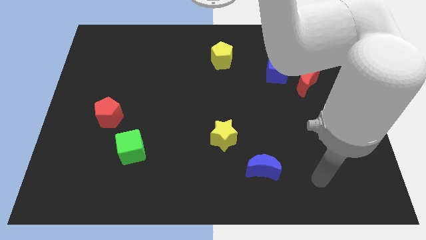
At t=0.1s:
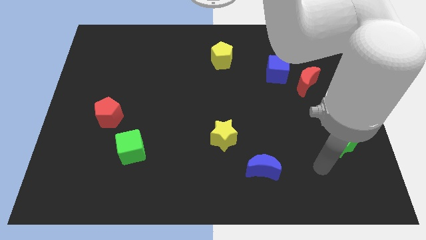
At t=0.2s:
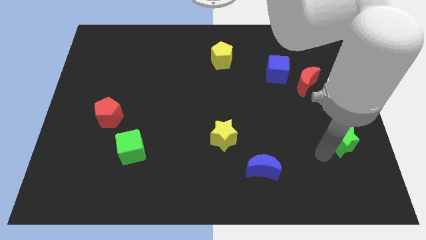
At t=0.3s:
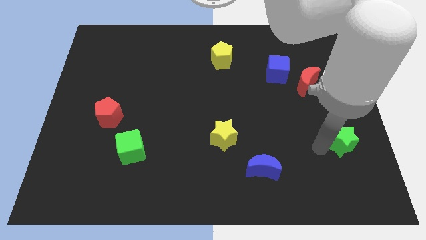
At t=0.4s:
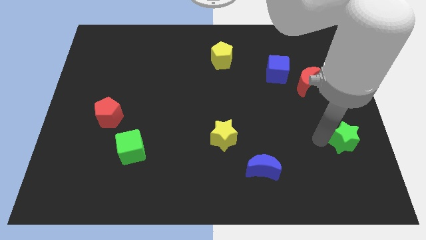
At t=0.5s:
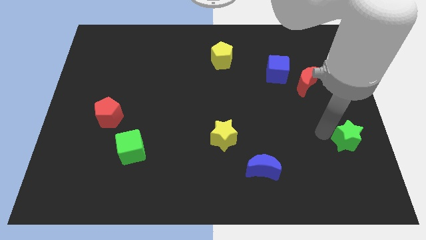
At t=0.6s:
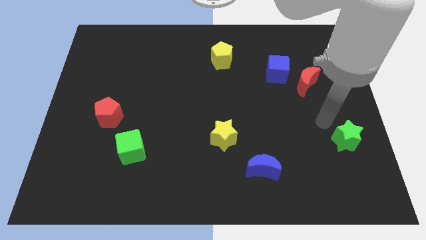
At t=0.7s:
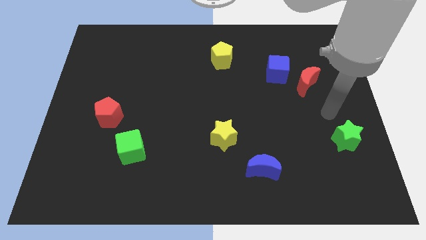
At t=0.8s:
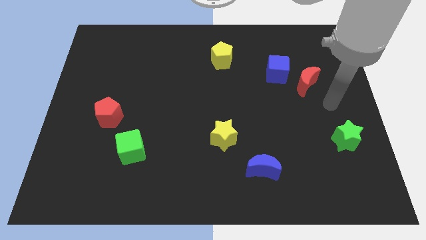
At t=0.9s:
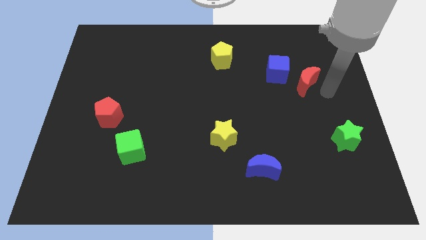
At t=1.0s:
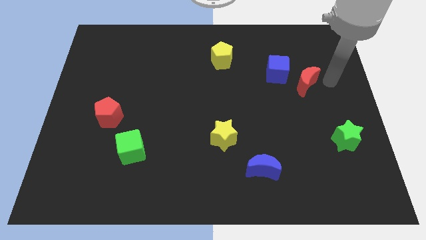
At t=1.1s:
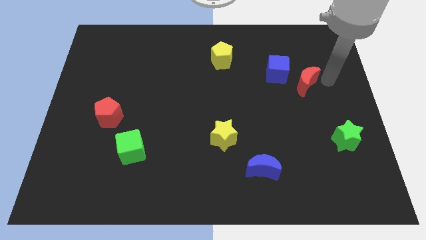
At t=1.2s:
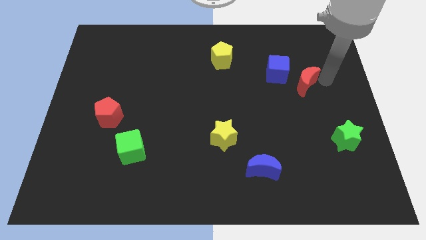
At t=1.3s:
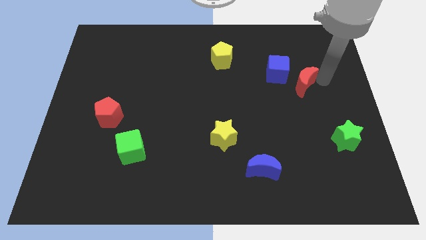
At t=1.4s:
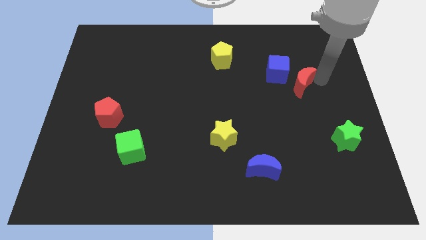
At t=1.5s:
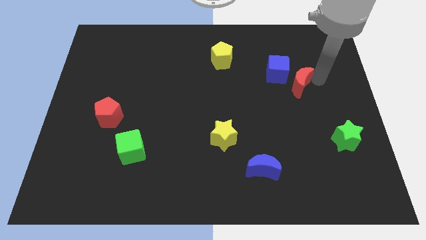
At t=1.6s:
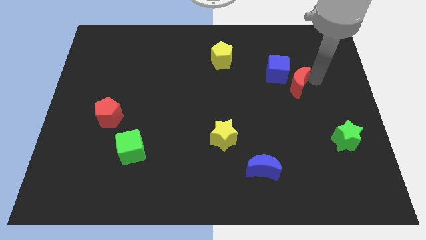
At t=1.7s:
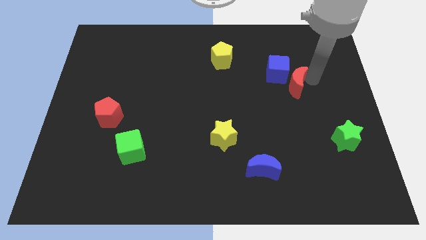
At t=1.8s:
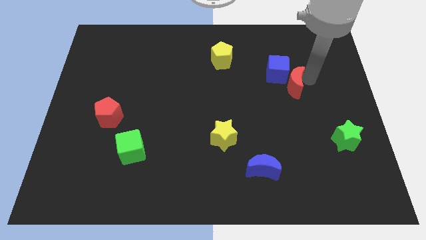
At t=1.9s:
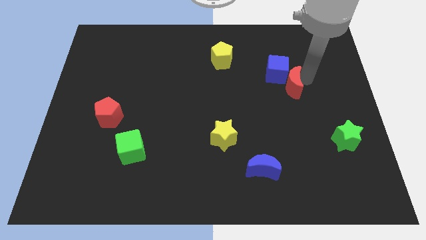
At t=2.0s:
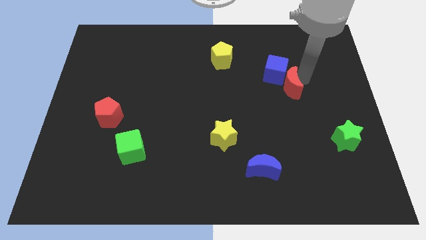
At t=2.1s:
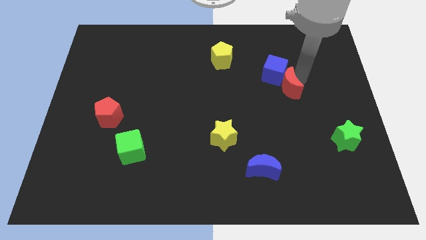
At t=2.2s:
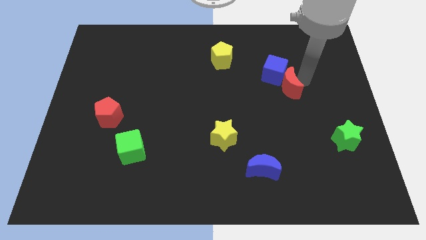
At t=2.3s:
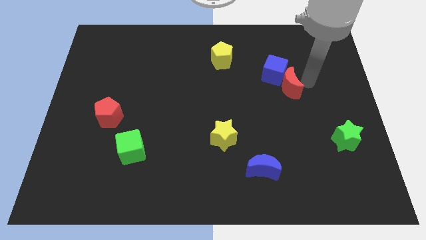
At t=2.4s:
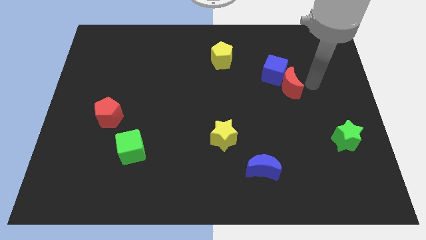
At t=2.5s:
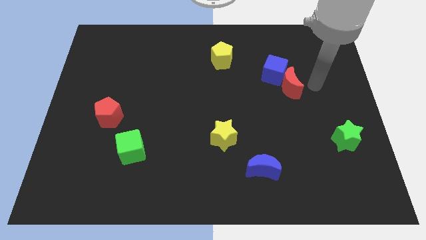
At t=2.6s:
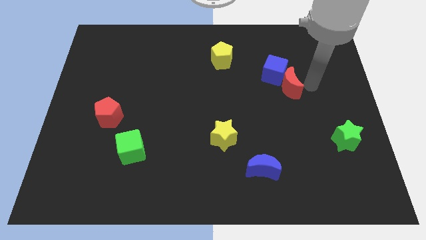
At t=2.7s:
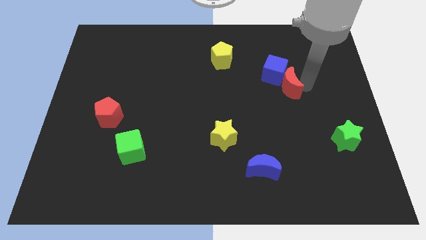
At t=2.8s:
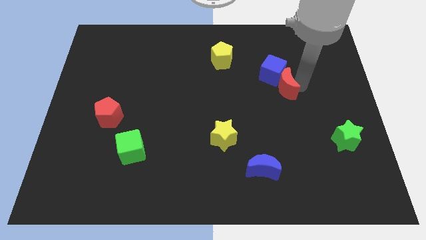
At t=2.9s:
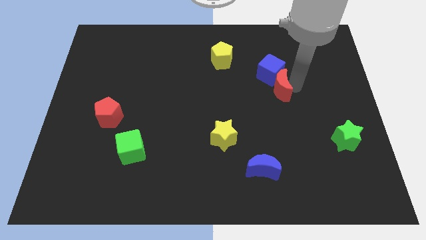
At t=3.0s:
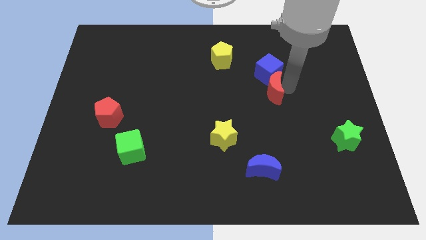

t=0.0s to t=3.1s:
move the red moon slightly left

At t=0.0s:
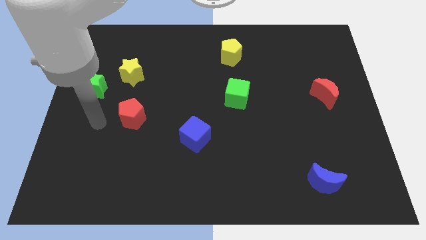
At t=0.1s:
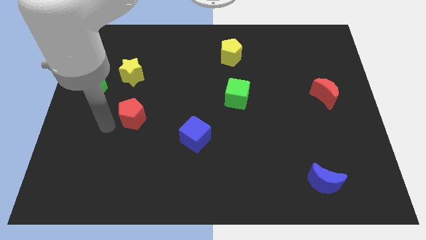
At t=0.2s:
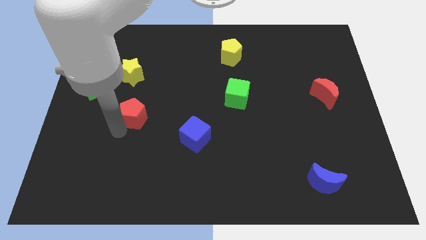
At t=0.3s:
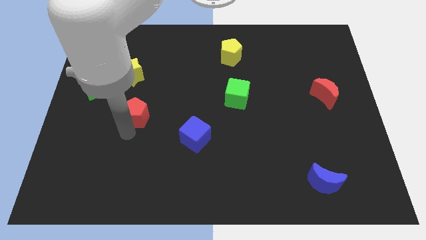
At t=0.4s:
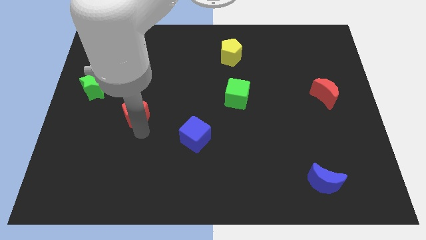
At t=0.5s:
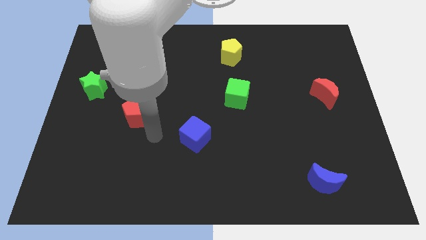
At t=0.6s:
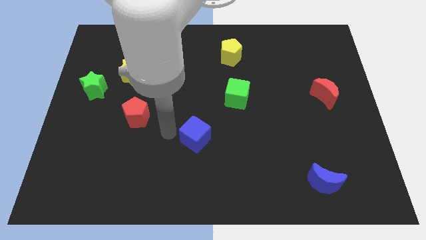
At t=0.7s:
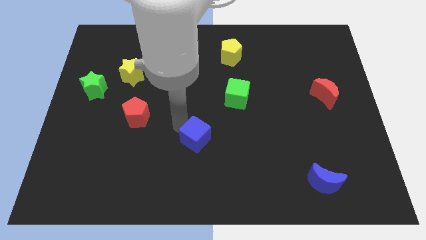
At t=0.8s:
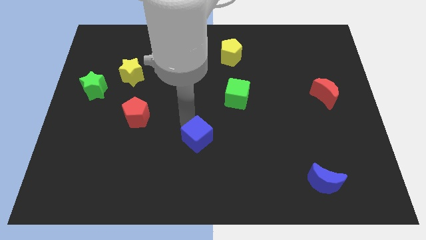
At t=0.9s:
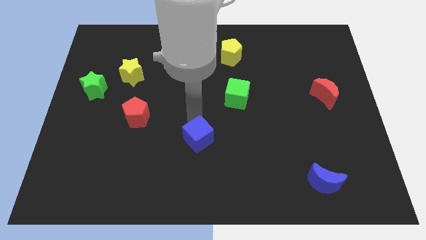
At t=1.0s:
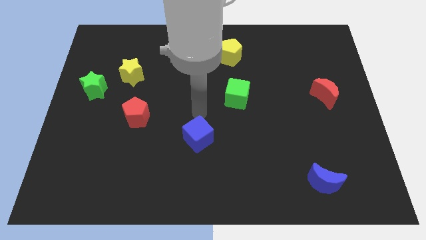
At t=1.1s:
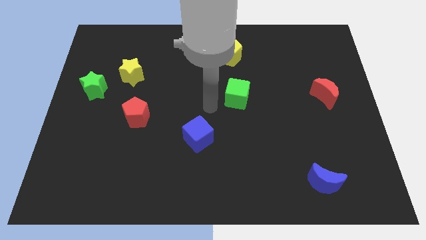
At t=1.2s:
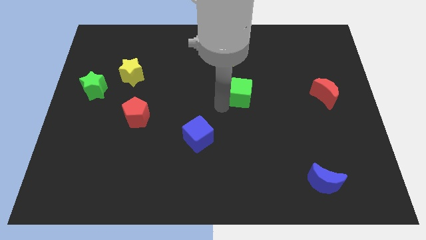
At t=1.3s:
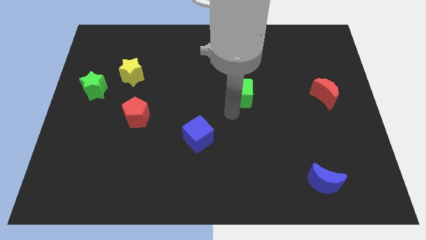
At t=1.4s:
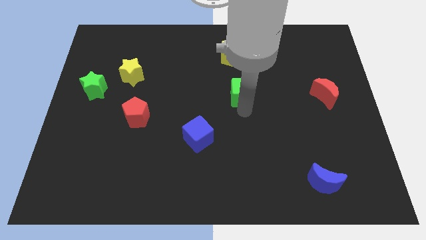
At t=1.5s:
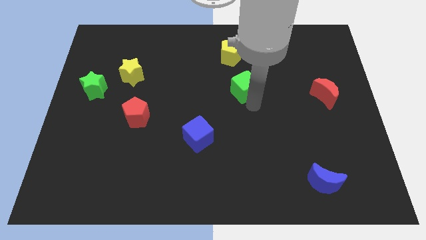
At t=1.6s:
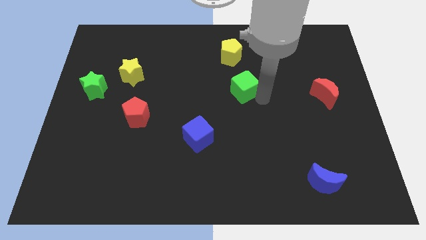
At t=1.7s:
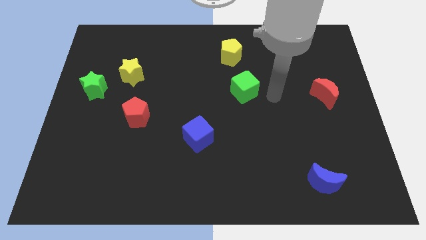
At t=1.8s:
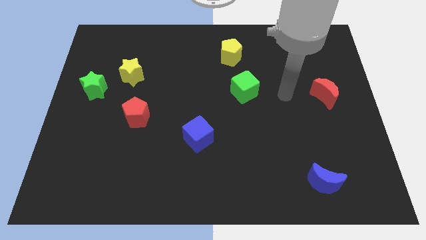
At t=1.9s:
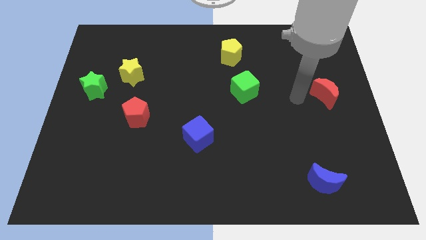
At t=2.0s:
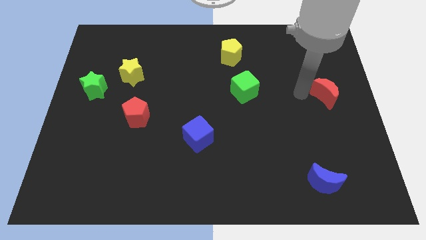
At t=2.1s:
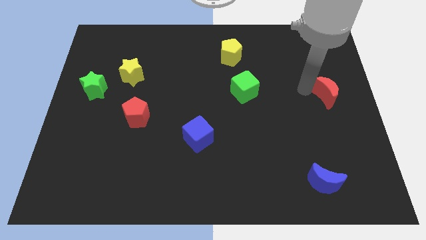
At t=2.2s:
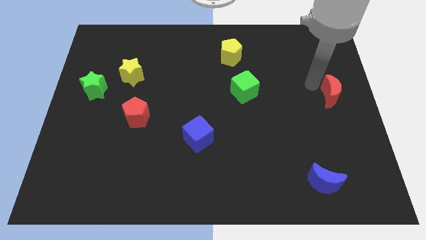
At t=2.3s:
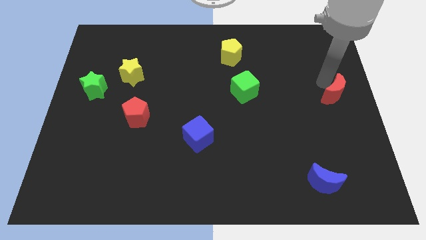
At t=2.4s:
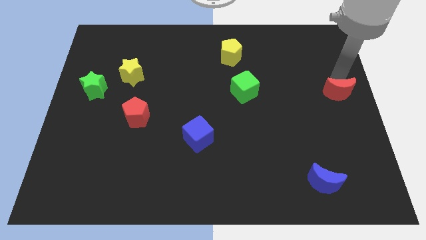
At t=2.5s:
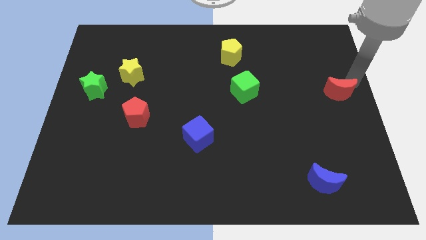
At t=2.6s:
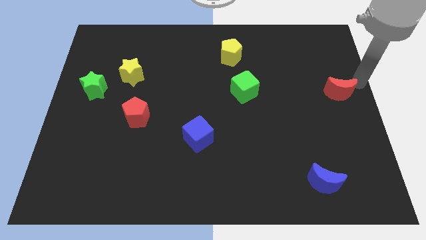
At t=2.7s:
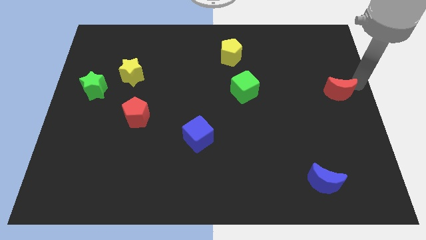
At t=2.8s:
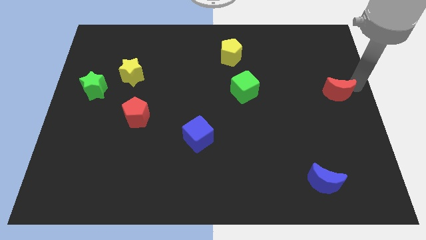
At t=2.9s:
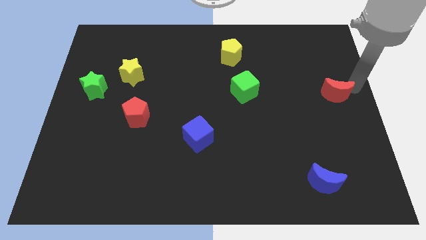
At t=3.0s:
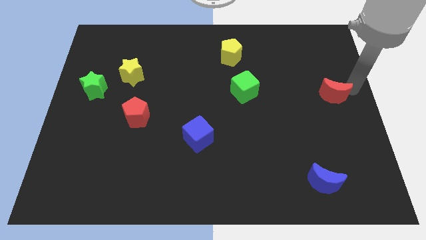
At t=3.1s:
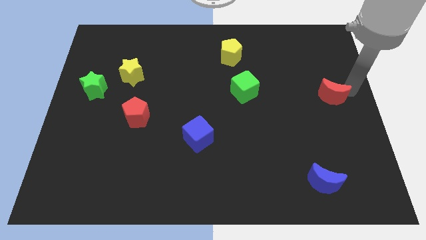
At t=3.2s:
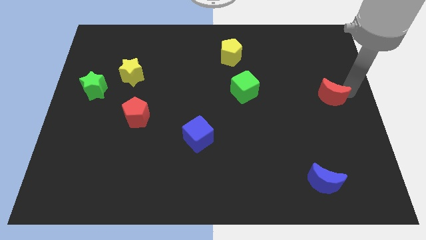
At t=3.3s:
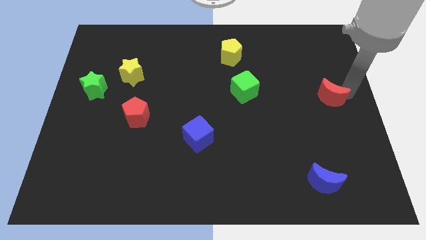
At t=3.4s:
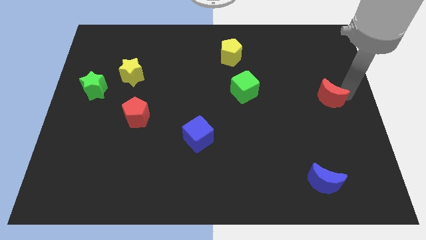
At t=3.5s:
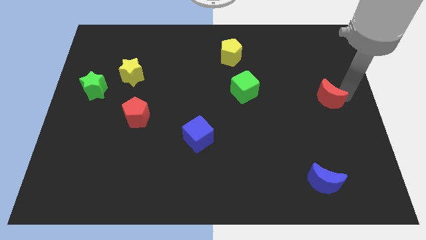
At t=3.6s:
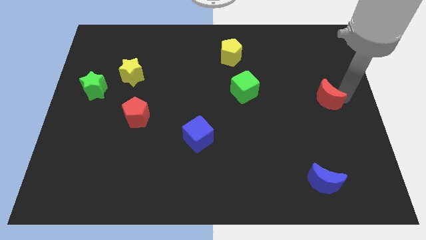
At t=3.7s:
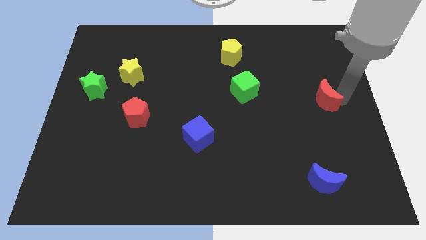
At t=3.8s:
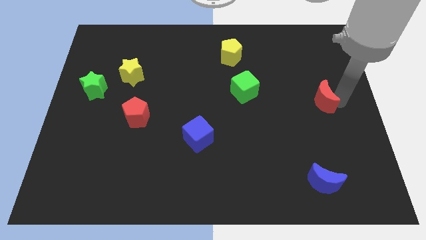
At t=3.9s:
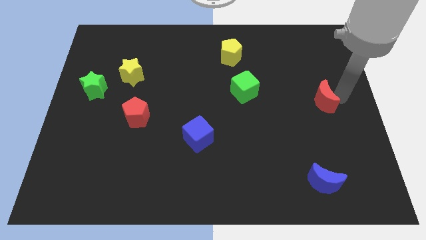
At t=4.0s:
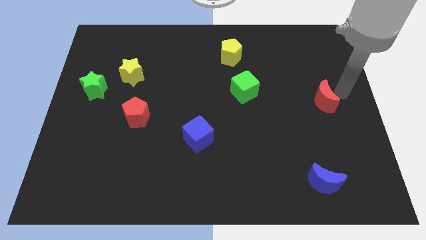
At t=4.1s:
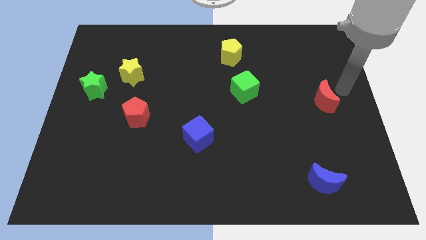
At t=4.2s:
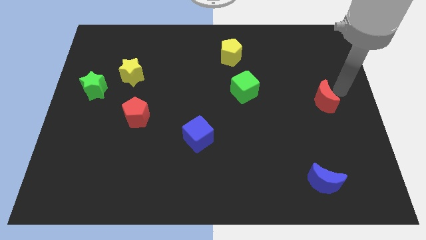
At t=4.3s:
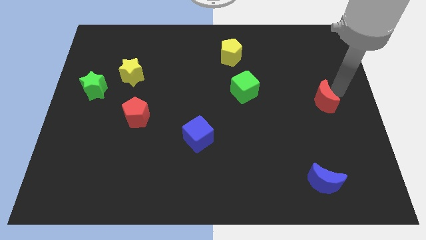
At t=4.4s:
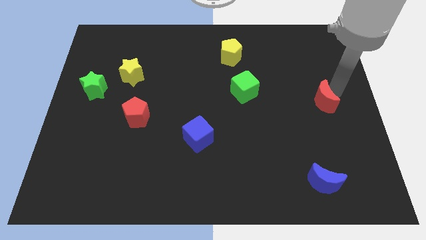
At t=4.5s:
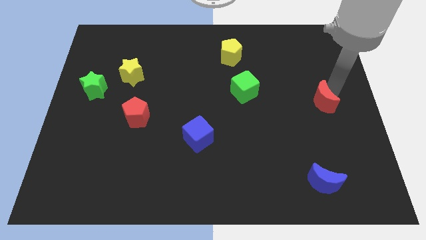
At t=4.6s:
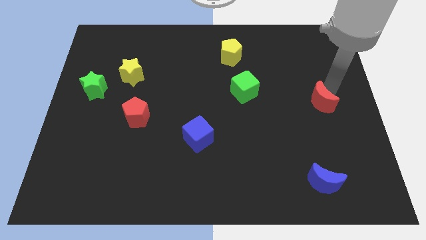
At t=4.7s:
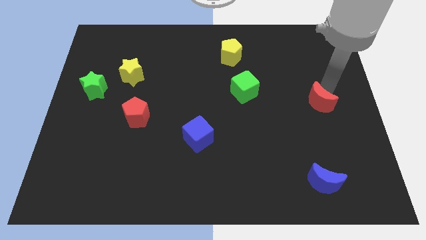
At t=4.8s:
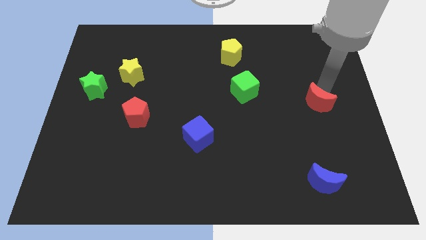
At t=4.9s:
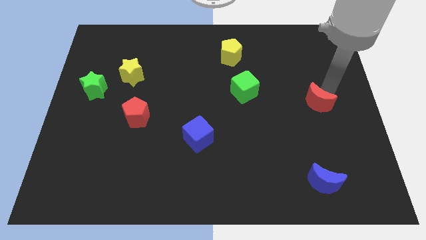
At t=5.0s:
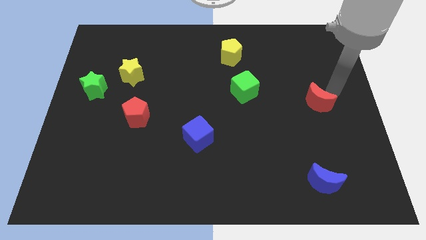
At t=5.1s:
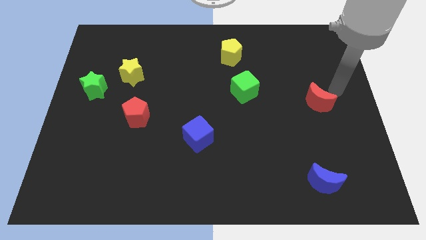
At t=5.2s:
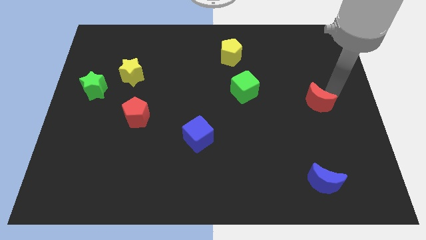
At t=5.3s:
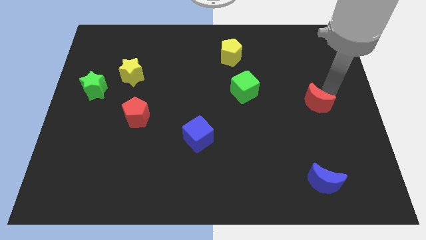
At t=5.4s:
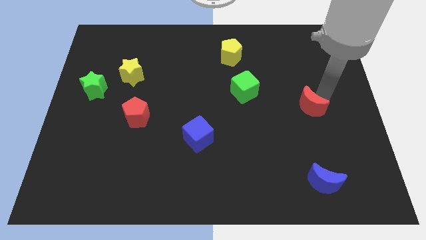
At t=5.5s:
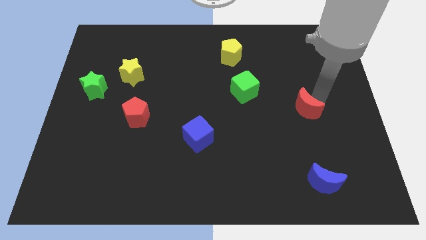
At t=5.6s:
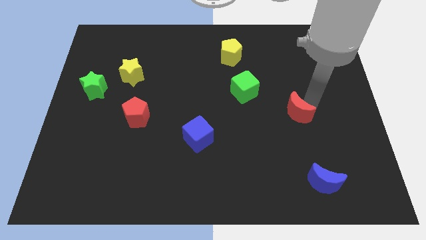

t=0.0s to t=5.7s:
push the red moon a little diagonally down and left
